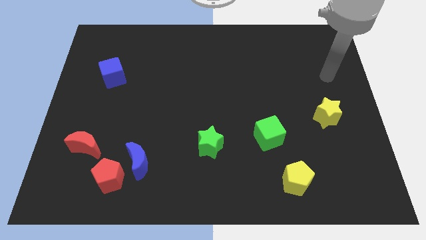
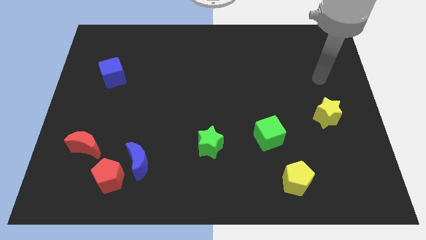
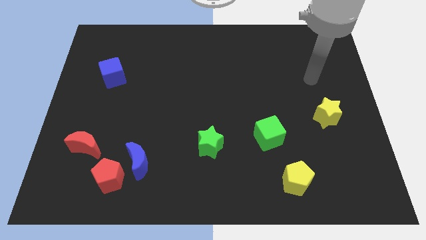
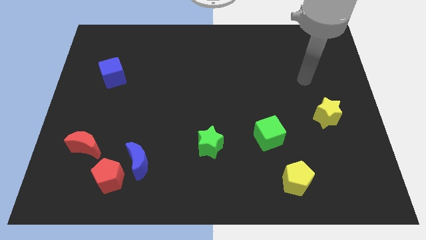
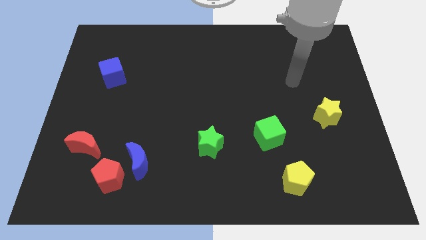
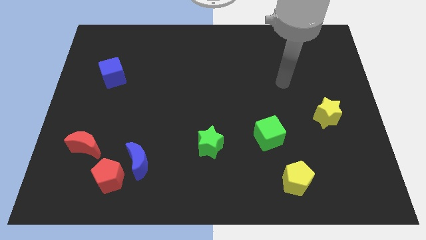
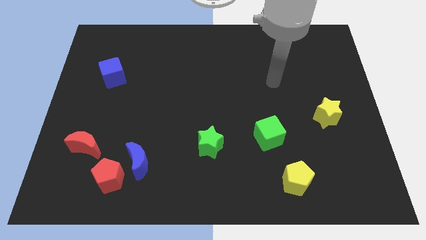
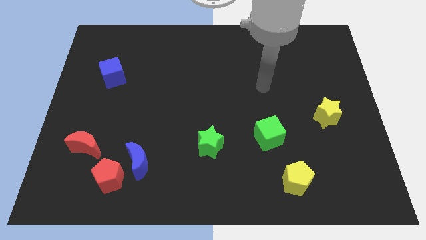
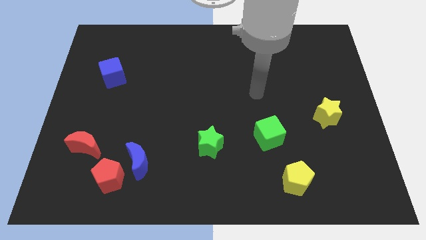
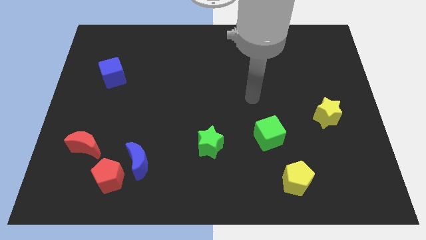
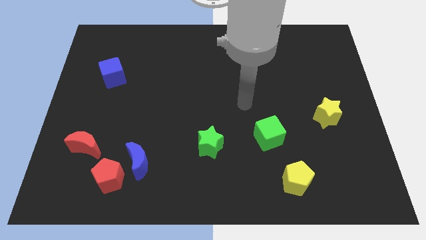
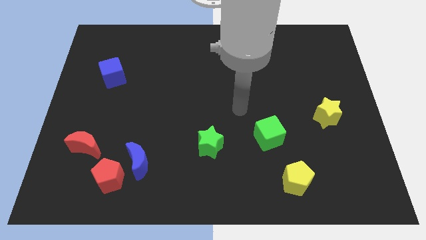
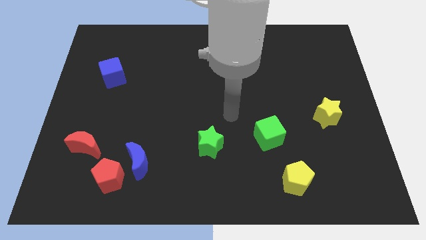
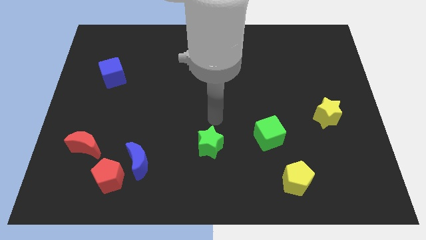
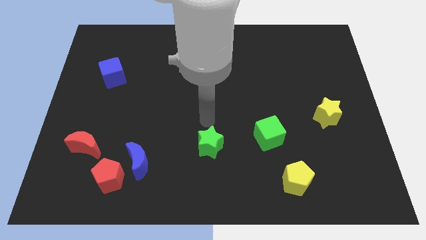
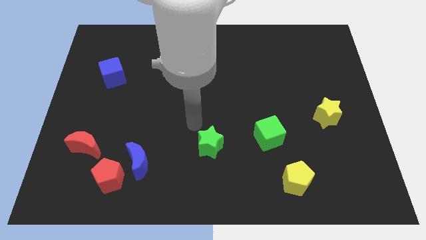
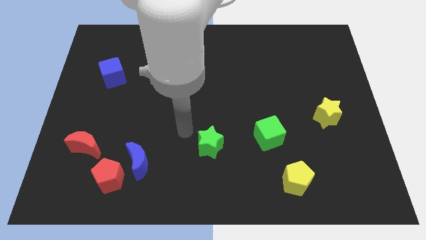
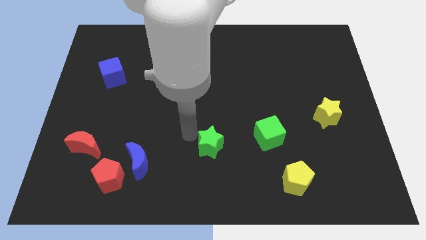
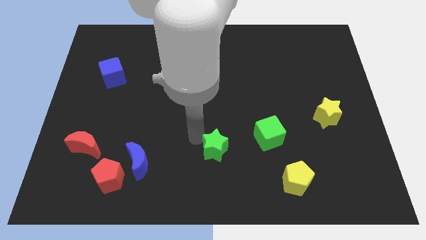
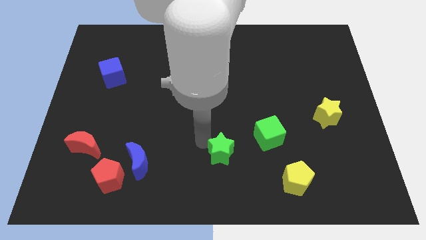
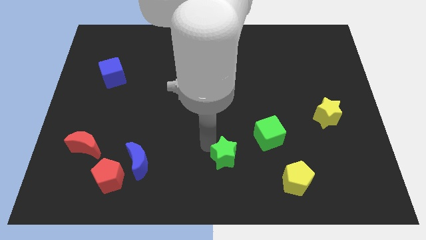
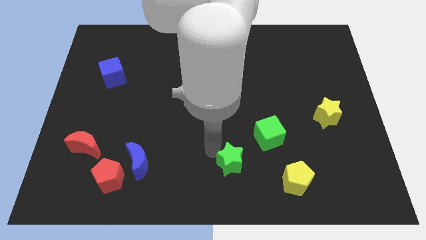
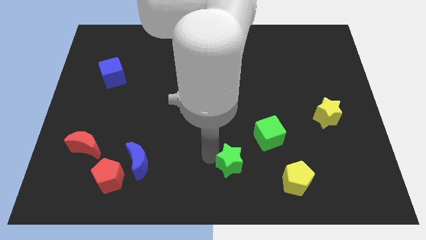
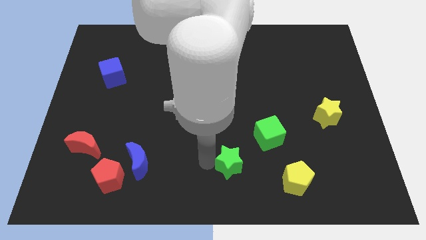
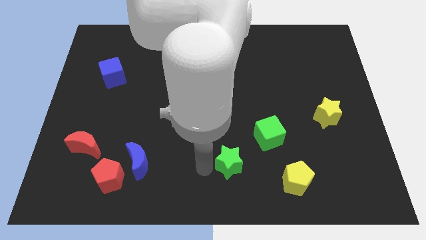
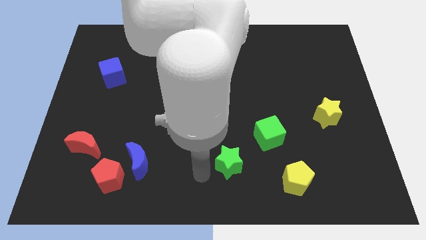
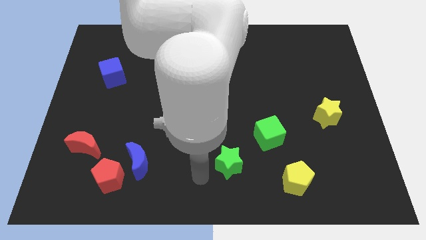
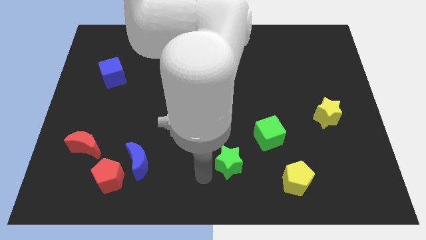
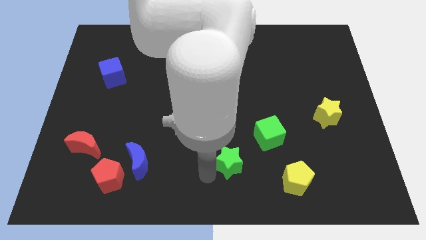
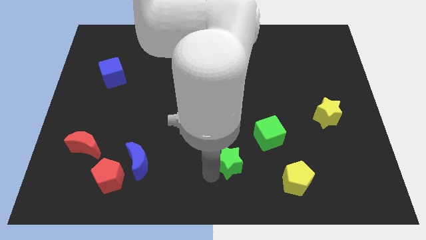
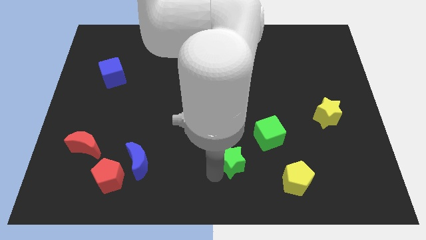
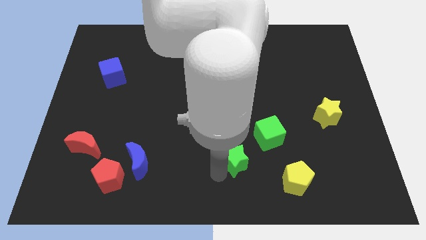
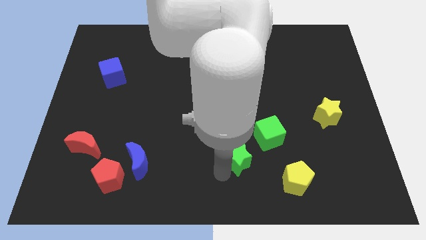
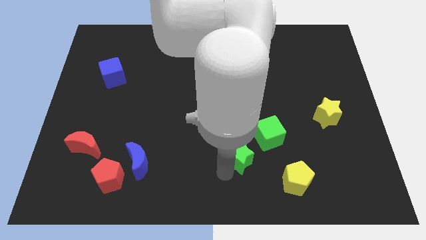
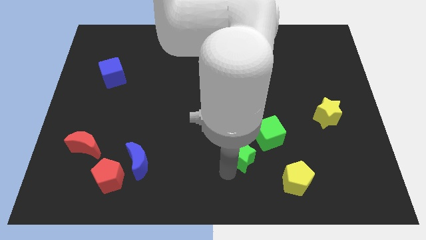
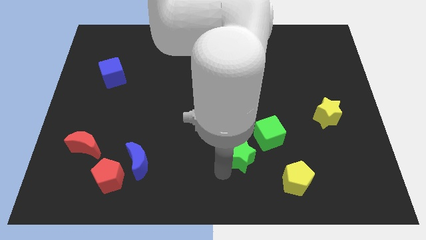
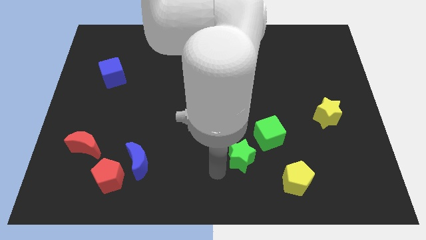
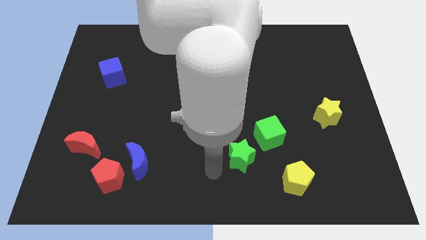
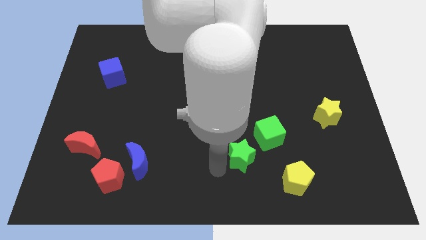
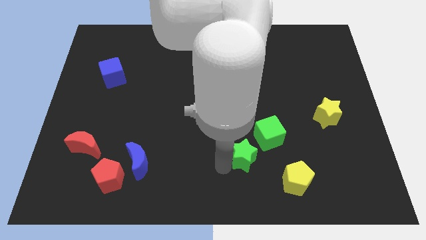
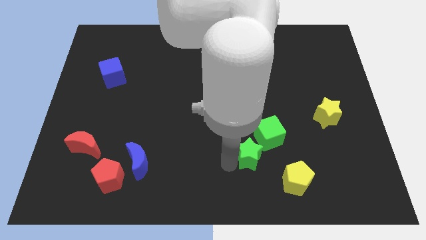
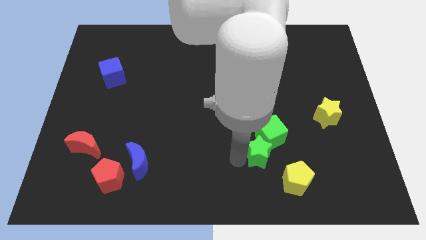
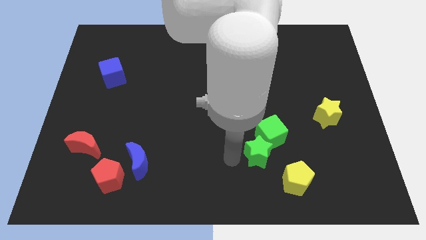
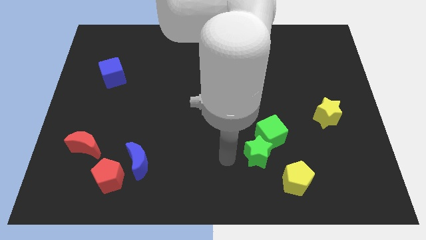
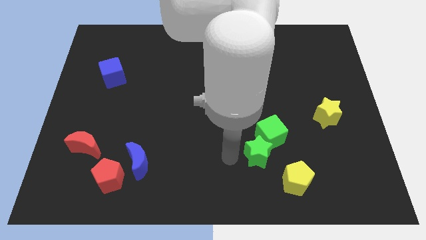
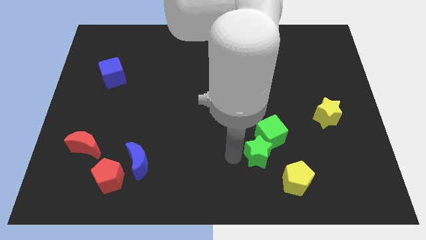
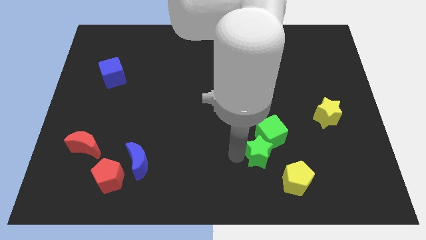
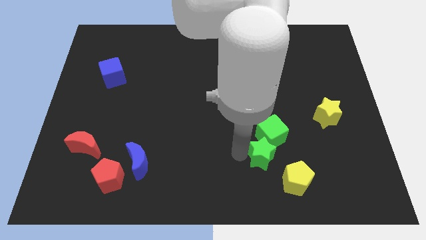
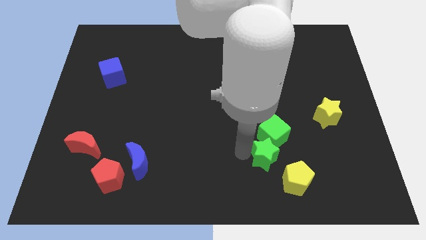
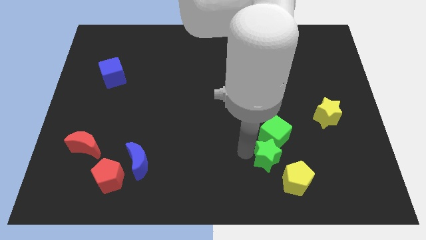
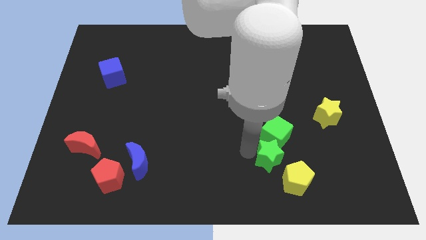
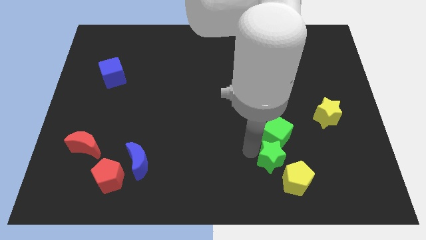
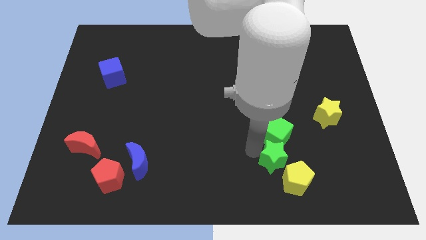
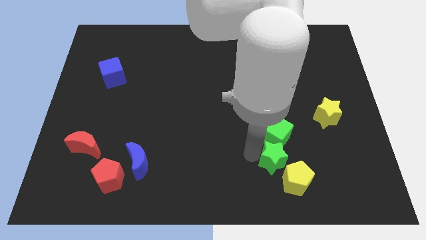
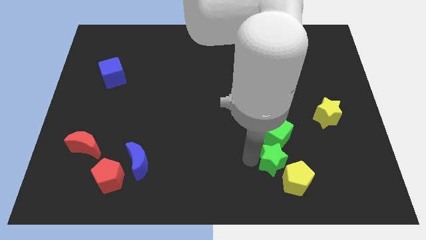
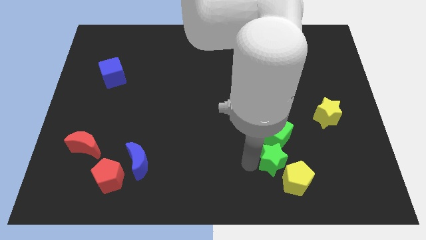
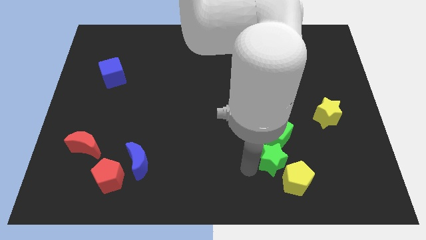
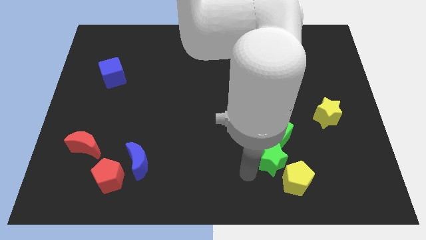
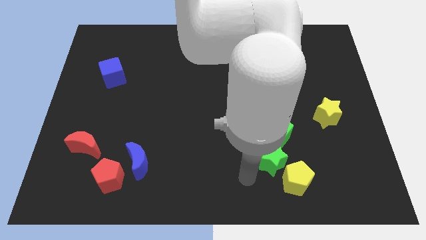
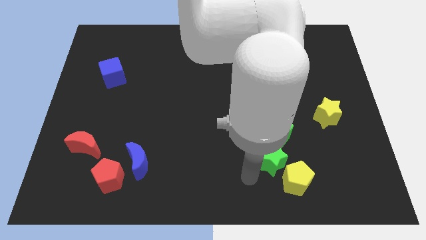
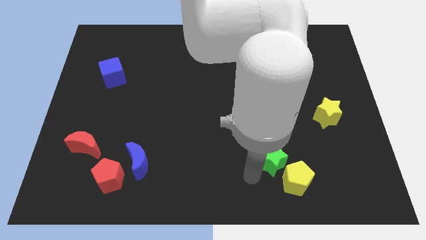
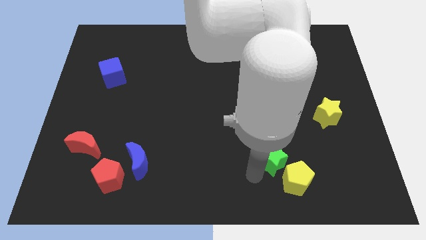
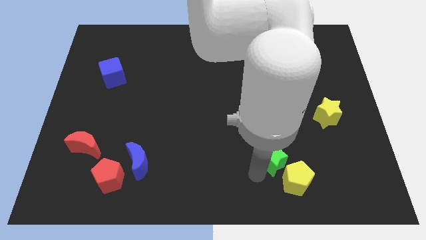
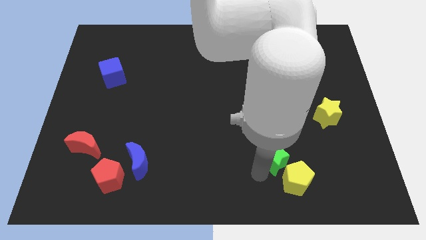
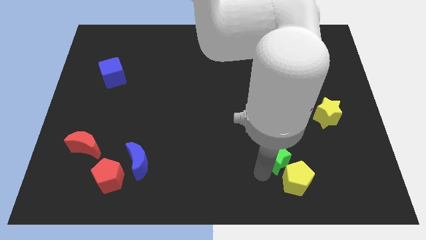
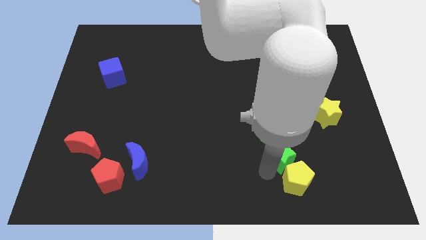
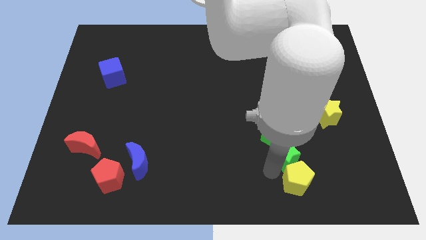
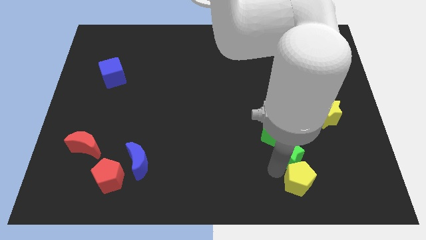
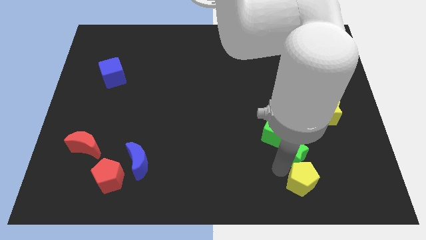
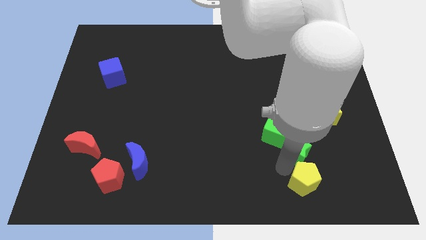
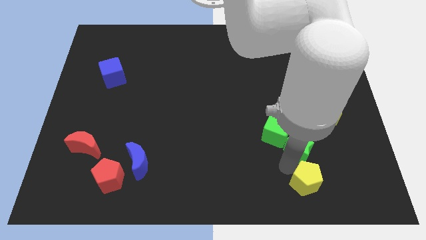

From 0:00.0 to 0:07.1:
slide the green star diagonally down and to the left of the yellow star
